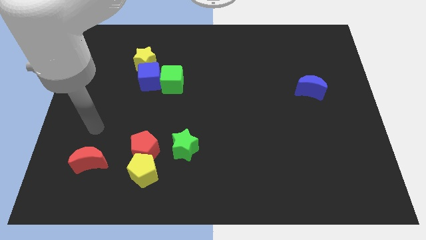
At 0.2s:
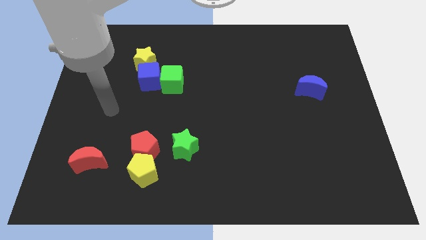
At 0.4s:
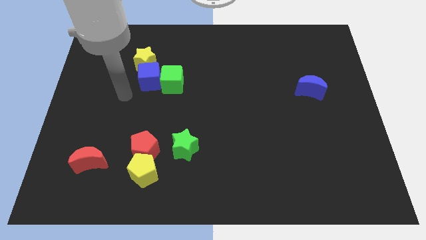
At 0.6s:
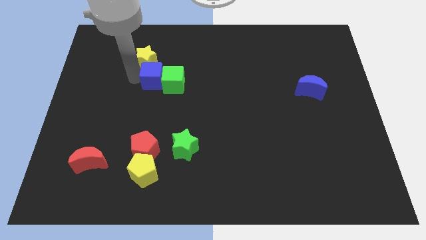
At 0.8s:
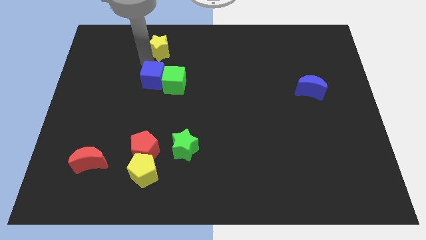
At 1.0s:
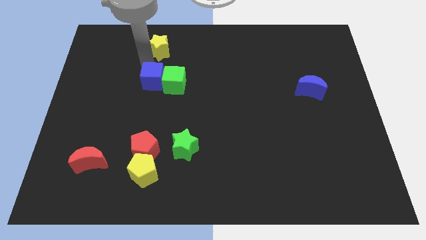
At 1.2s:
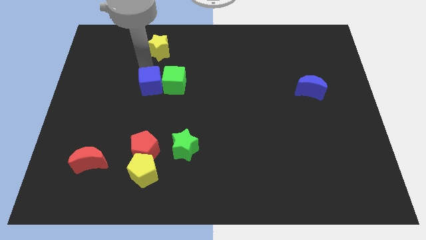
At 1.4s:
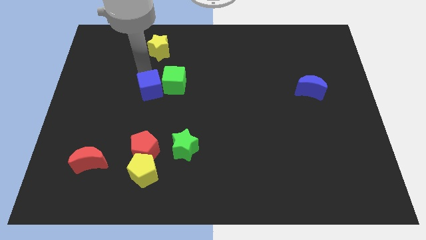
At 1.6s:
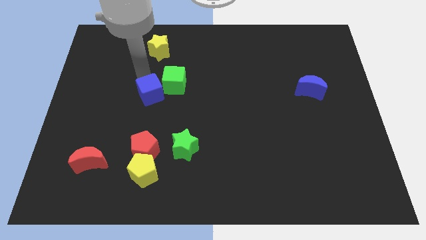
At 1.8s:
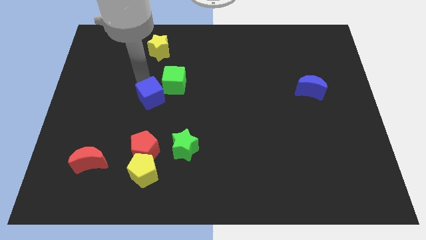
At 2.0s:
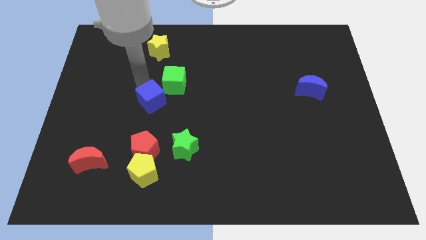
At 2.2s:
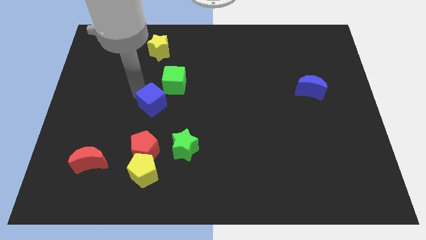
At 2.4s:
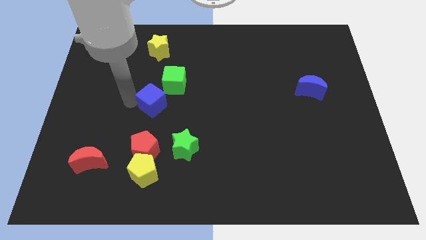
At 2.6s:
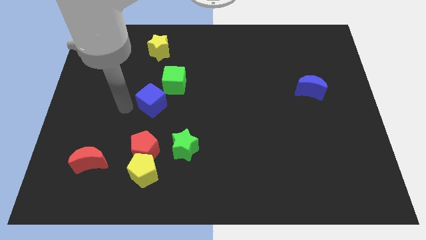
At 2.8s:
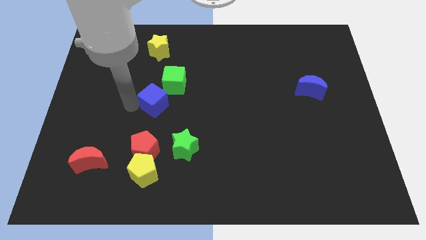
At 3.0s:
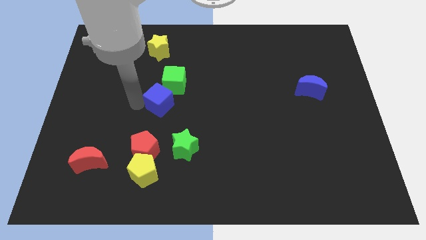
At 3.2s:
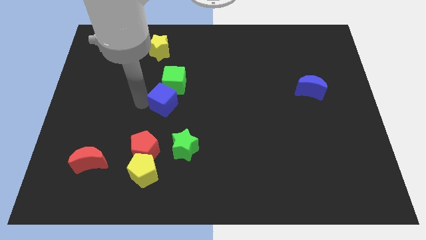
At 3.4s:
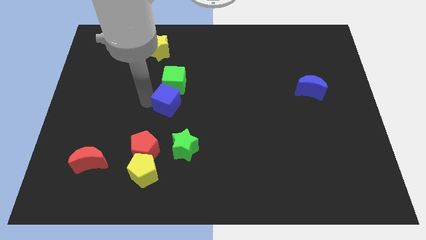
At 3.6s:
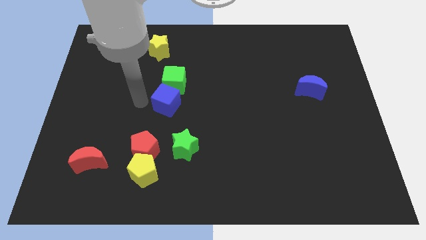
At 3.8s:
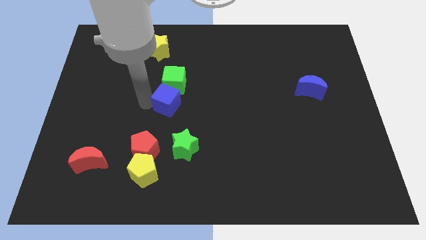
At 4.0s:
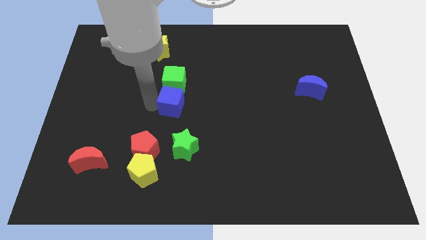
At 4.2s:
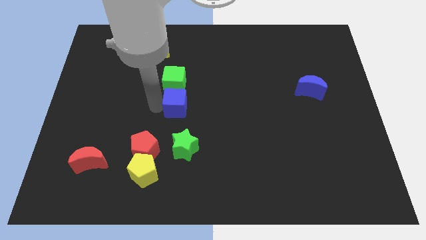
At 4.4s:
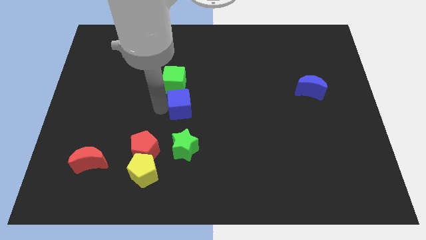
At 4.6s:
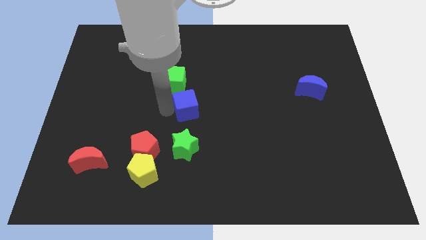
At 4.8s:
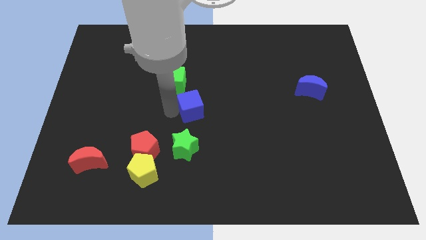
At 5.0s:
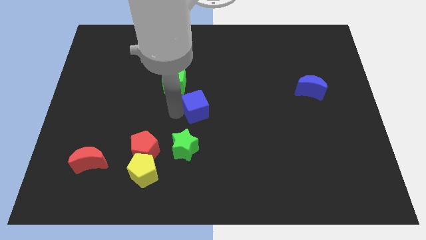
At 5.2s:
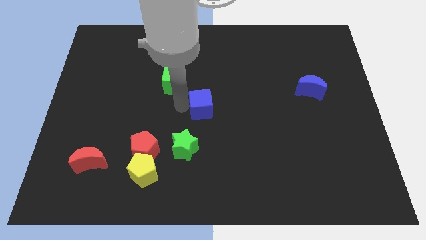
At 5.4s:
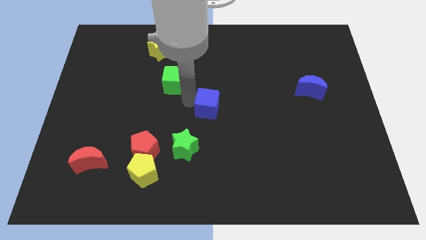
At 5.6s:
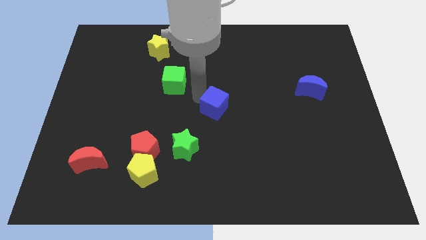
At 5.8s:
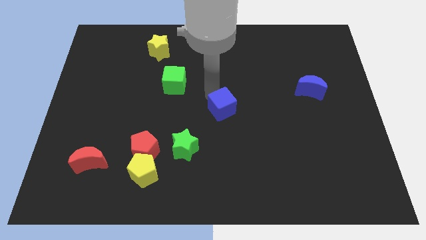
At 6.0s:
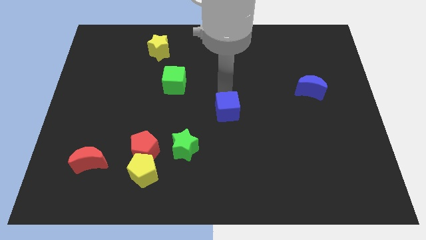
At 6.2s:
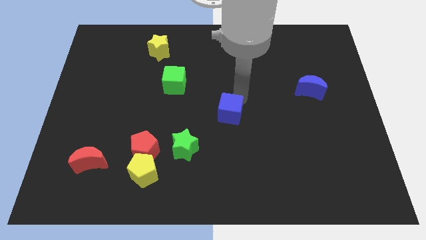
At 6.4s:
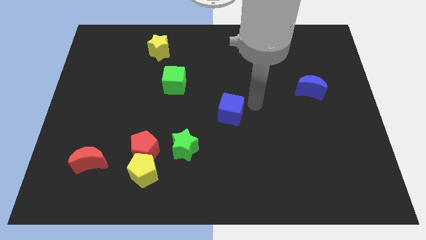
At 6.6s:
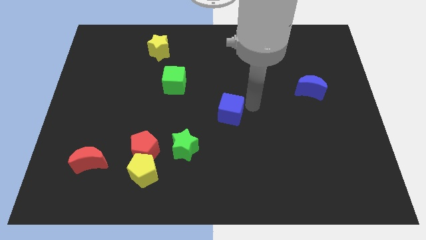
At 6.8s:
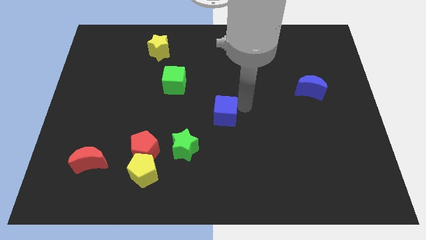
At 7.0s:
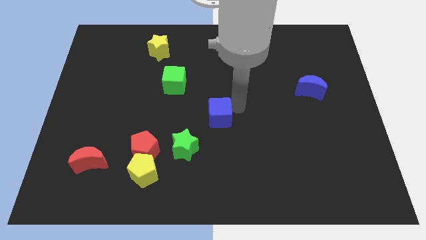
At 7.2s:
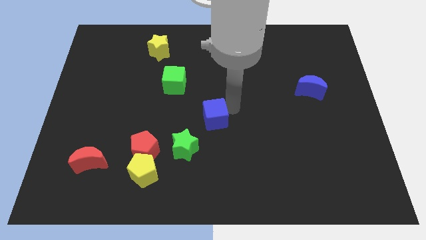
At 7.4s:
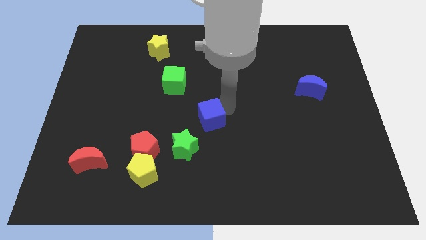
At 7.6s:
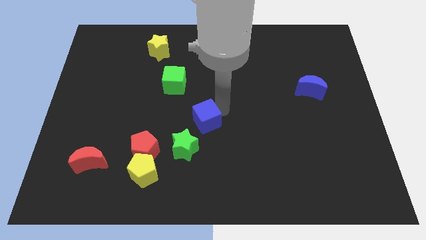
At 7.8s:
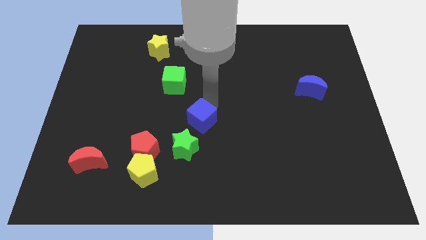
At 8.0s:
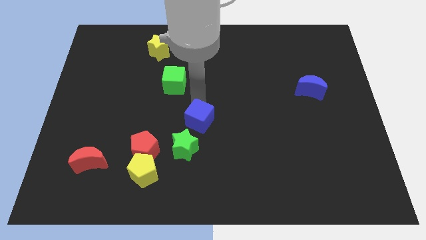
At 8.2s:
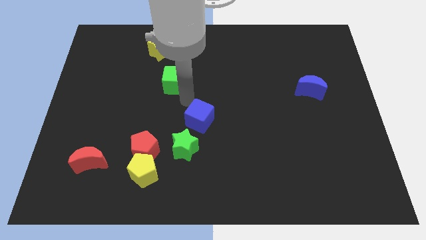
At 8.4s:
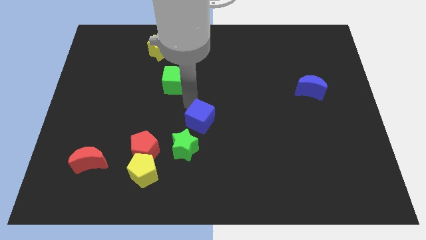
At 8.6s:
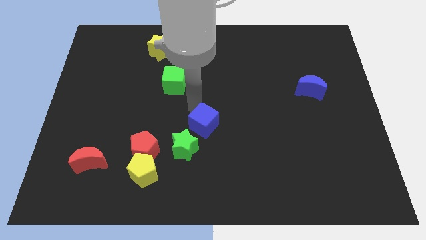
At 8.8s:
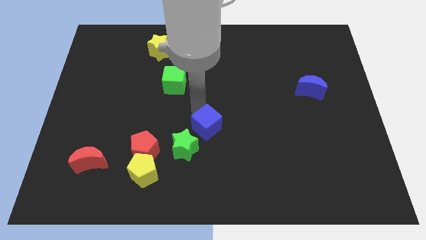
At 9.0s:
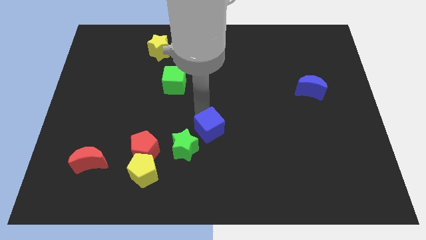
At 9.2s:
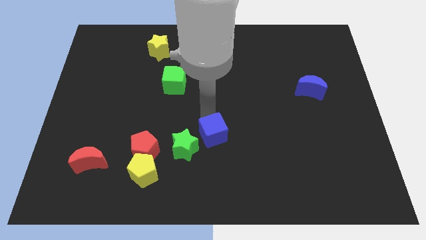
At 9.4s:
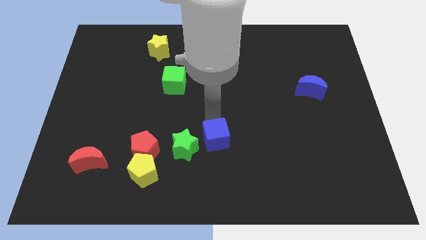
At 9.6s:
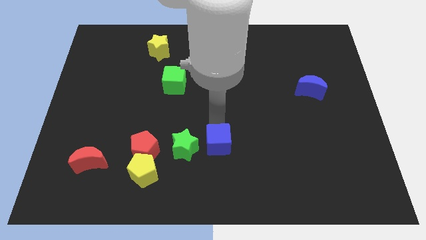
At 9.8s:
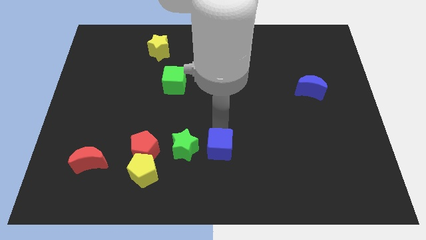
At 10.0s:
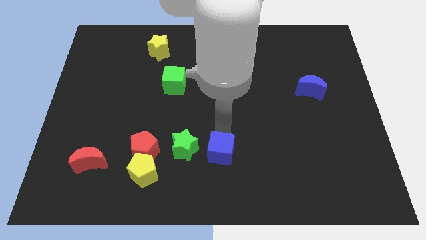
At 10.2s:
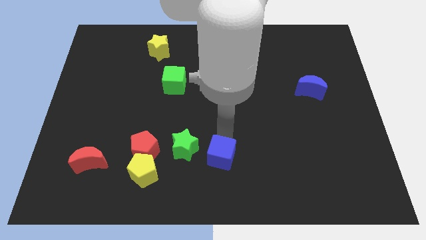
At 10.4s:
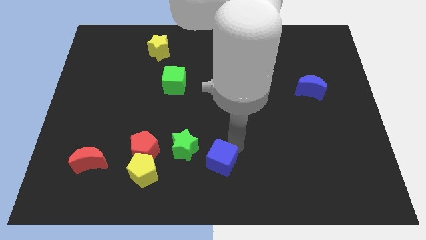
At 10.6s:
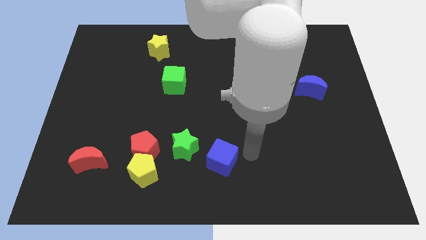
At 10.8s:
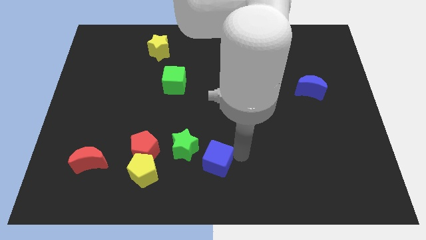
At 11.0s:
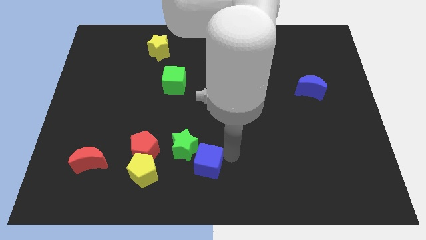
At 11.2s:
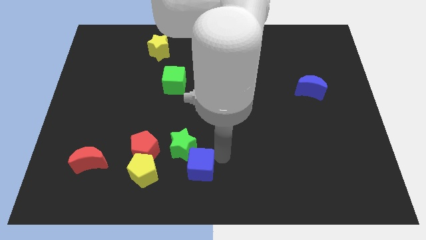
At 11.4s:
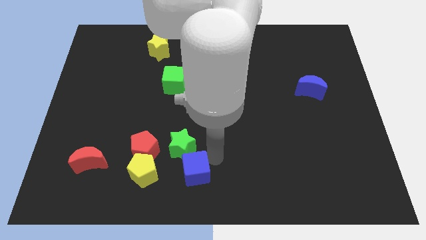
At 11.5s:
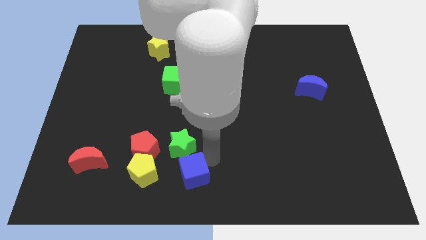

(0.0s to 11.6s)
put the blue cube diagonally down and to the right of the red pentagon

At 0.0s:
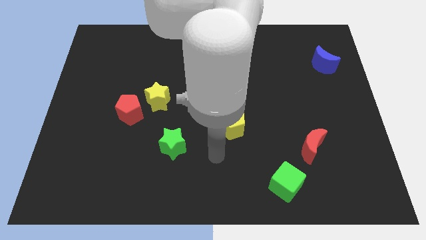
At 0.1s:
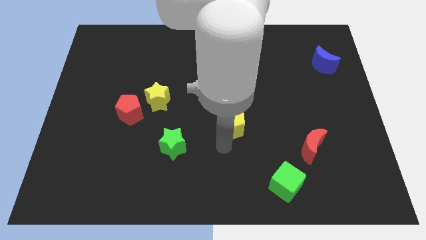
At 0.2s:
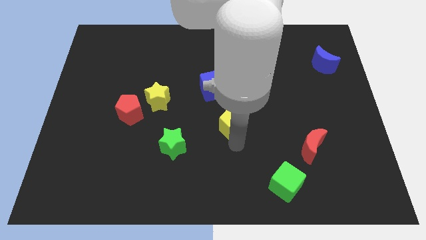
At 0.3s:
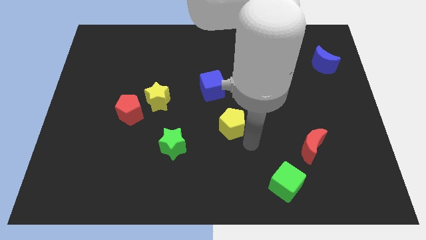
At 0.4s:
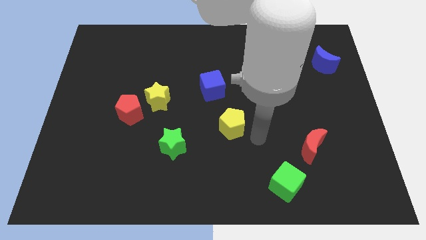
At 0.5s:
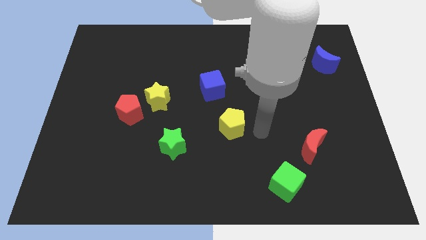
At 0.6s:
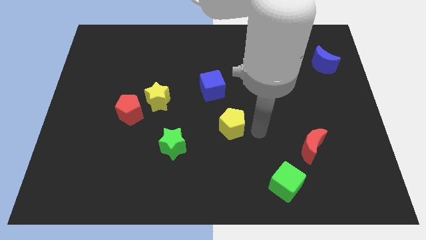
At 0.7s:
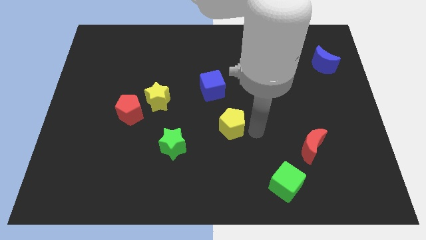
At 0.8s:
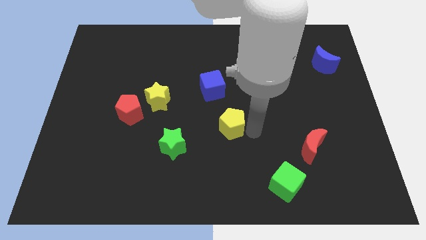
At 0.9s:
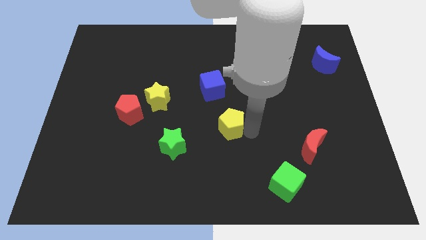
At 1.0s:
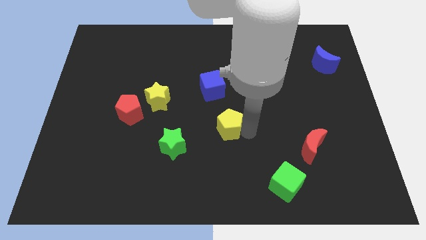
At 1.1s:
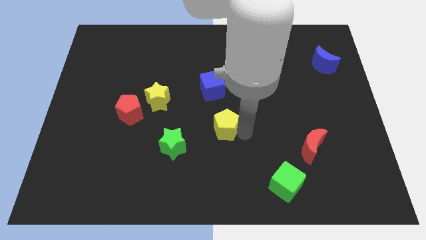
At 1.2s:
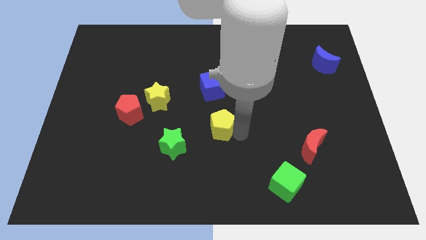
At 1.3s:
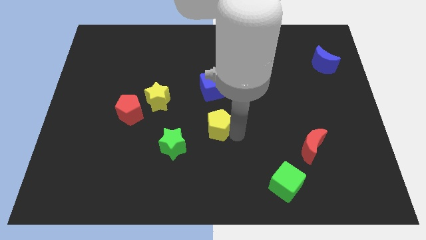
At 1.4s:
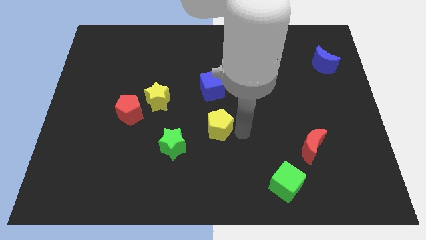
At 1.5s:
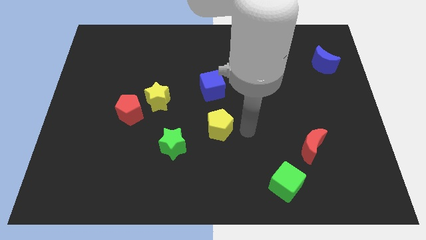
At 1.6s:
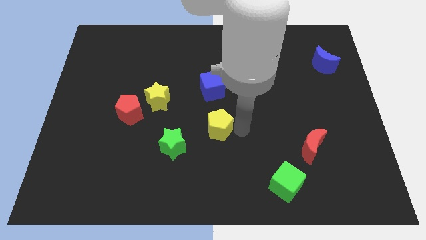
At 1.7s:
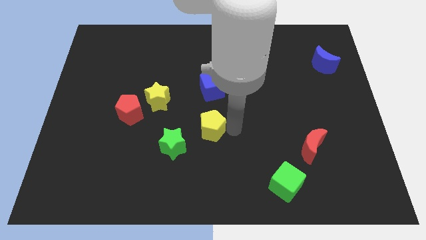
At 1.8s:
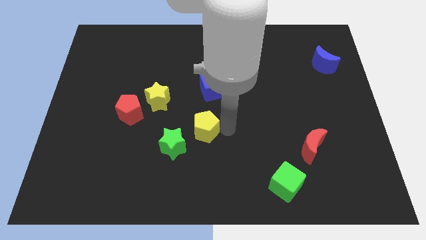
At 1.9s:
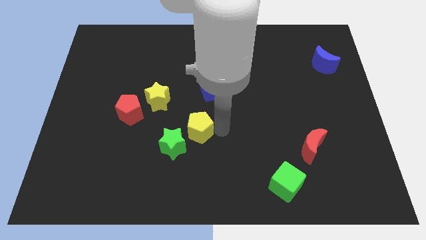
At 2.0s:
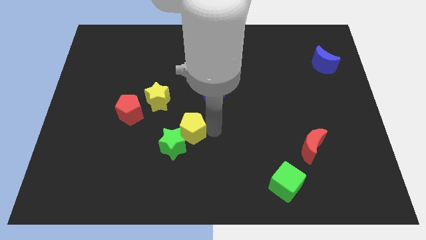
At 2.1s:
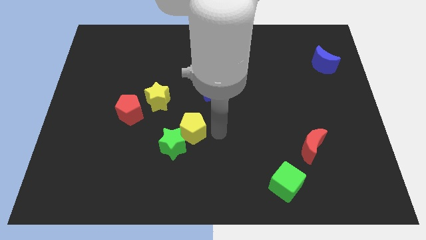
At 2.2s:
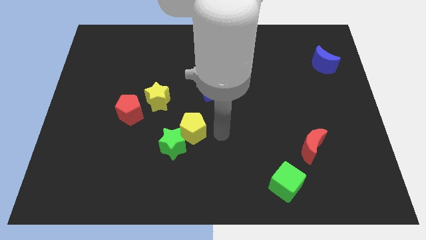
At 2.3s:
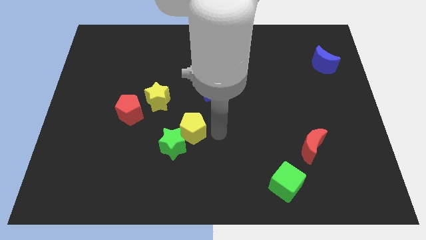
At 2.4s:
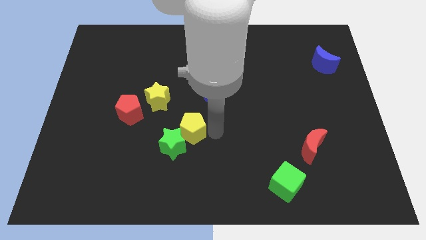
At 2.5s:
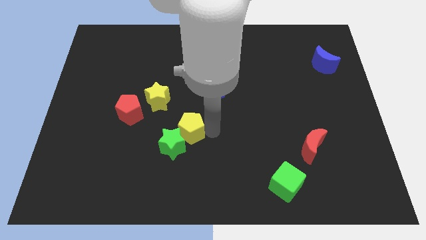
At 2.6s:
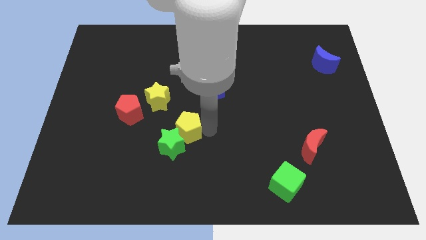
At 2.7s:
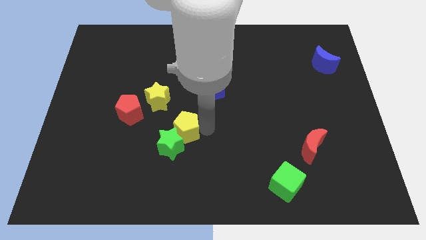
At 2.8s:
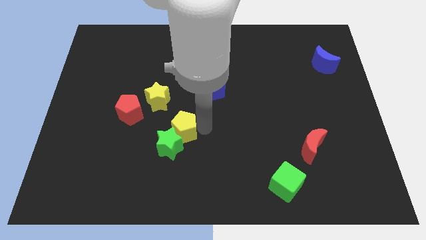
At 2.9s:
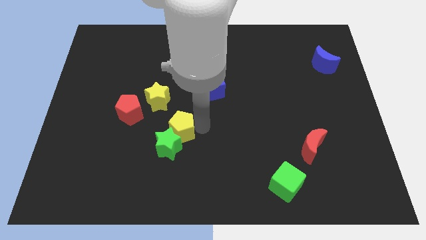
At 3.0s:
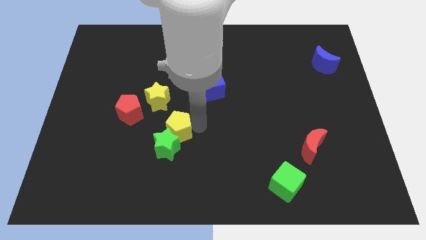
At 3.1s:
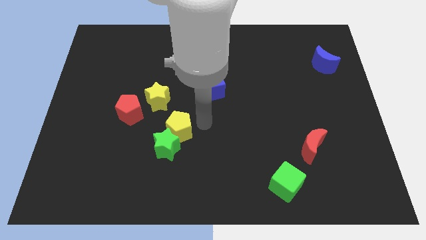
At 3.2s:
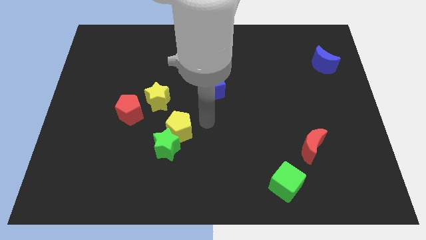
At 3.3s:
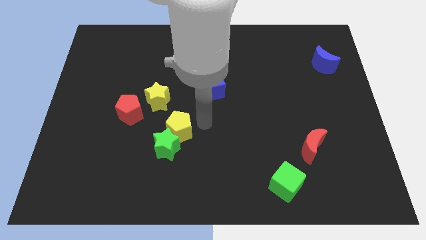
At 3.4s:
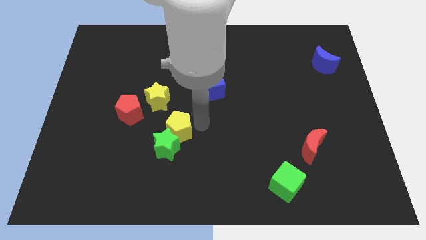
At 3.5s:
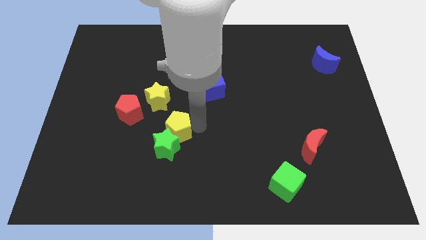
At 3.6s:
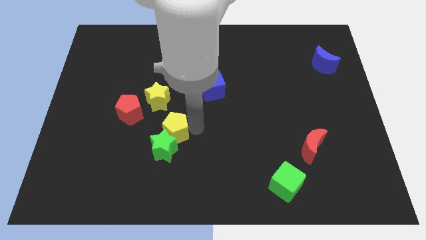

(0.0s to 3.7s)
move the yellow pentagon below the yellow star
